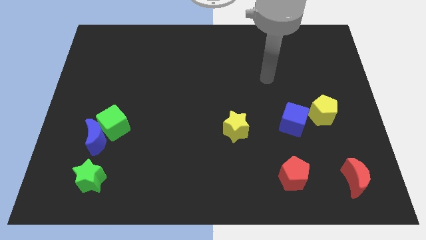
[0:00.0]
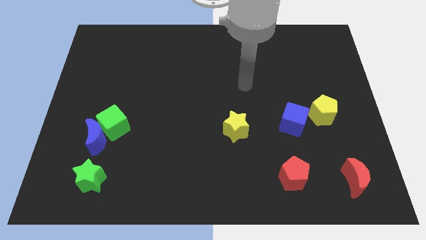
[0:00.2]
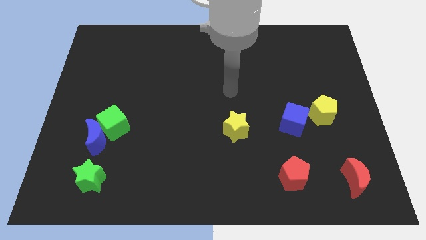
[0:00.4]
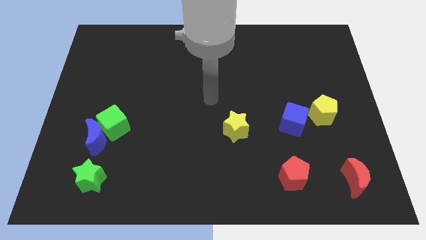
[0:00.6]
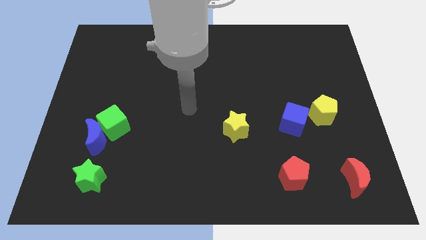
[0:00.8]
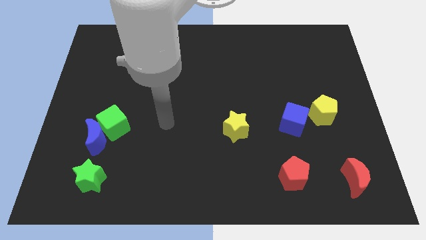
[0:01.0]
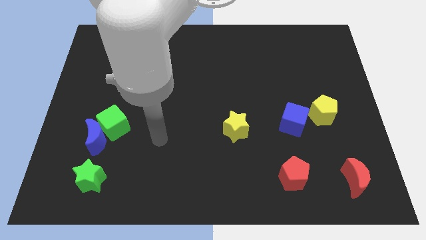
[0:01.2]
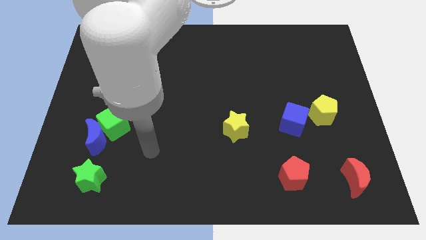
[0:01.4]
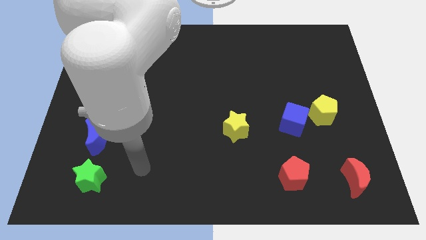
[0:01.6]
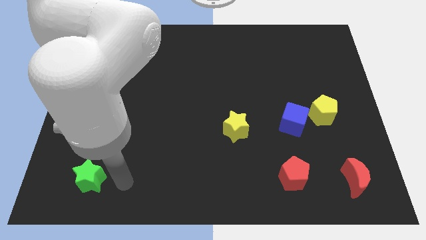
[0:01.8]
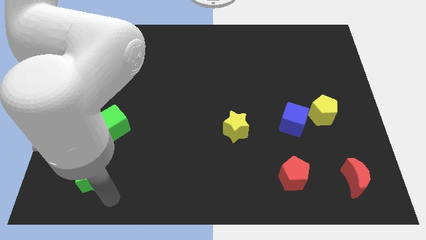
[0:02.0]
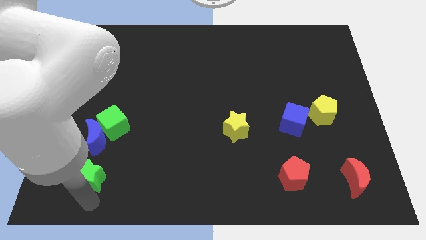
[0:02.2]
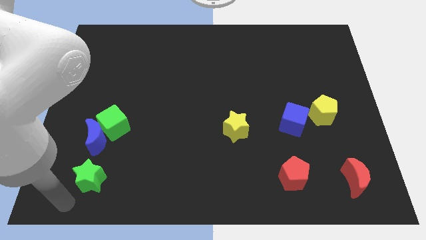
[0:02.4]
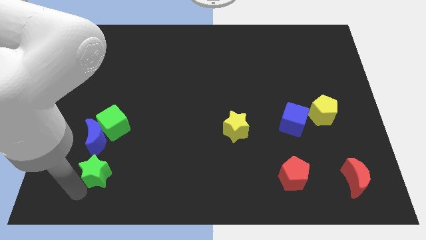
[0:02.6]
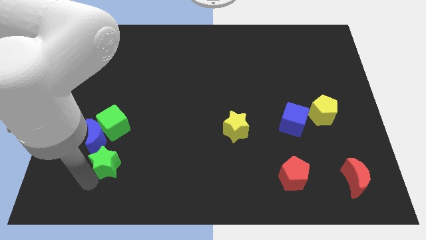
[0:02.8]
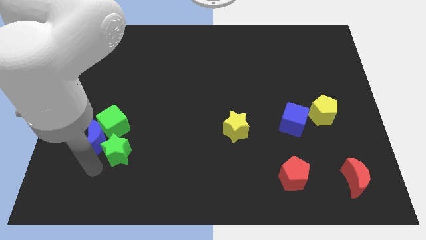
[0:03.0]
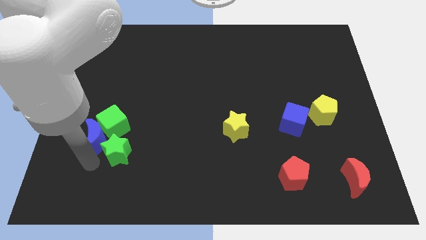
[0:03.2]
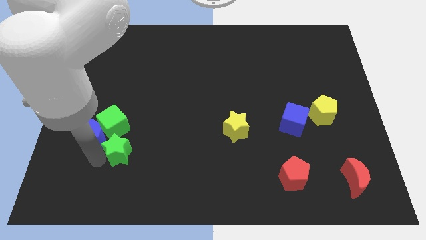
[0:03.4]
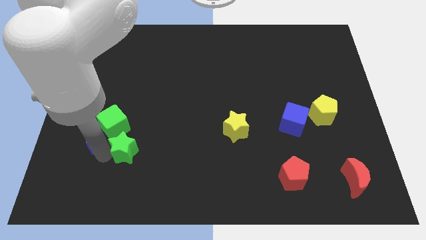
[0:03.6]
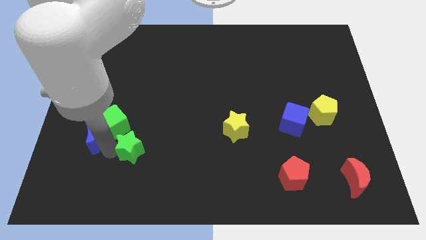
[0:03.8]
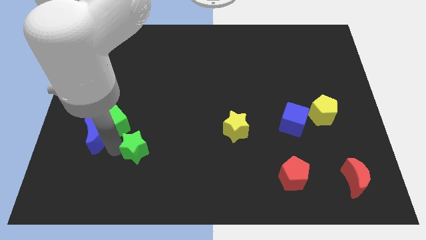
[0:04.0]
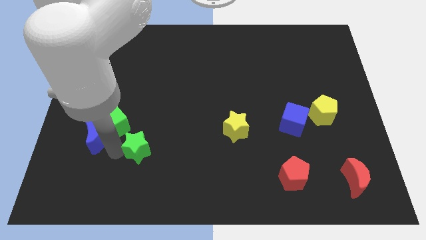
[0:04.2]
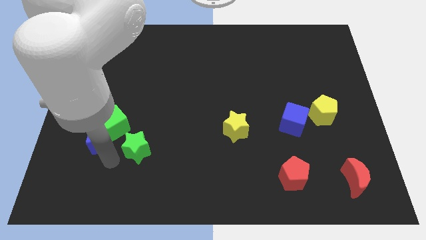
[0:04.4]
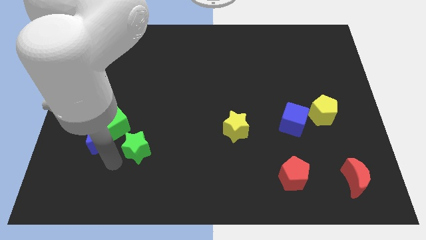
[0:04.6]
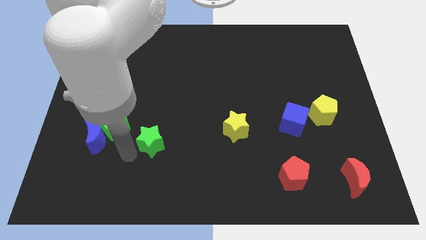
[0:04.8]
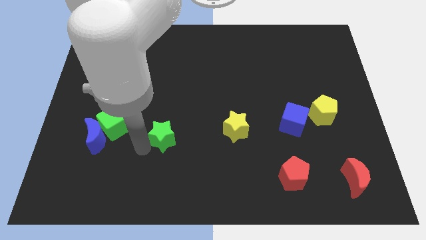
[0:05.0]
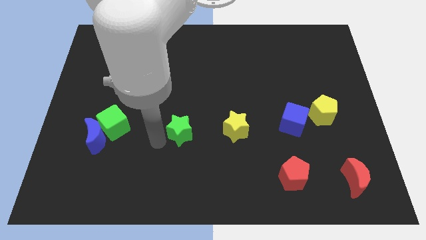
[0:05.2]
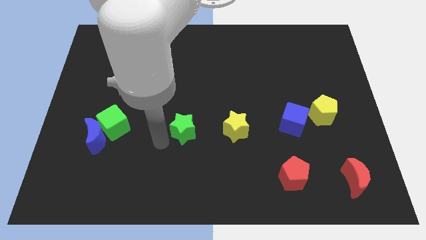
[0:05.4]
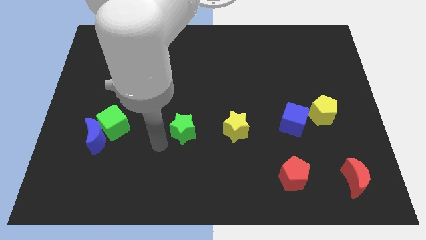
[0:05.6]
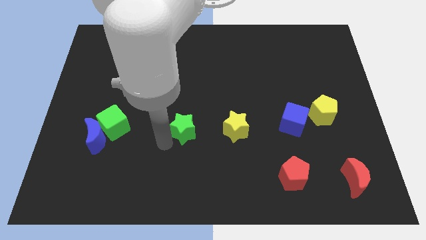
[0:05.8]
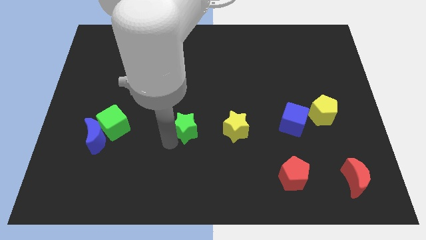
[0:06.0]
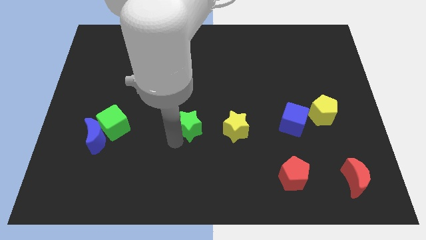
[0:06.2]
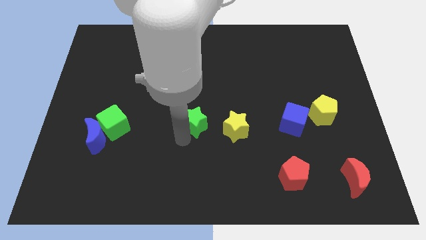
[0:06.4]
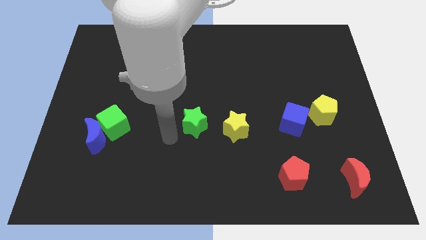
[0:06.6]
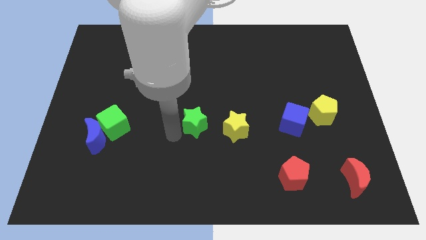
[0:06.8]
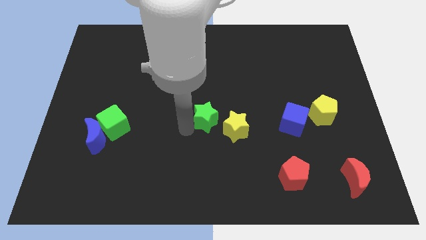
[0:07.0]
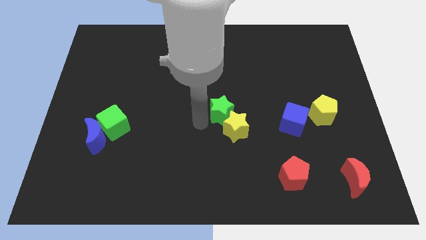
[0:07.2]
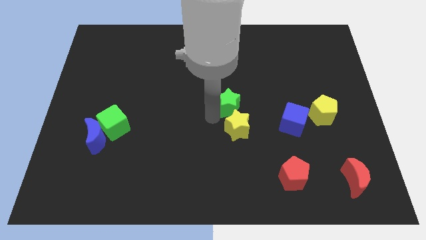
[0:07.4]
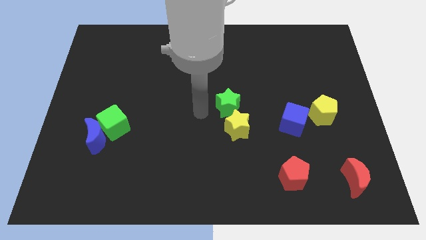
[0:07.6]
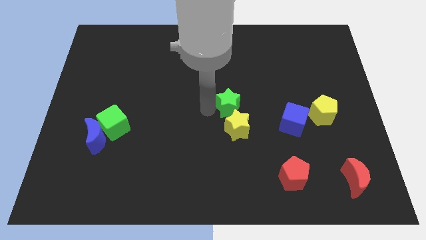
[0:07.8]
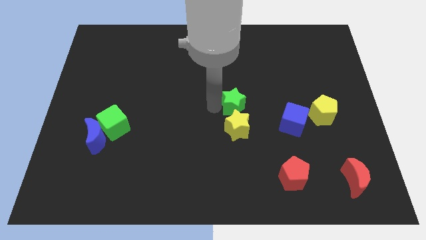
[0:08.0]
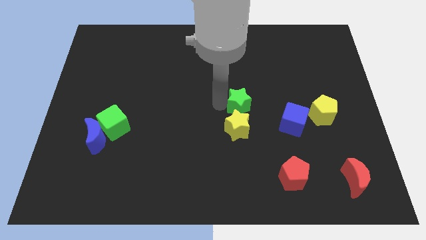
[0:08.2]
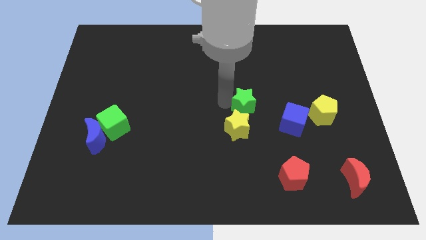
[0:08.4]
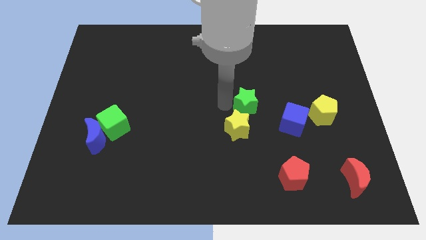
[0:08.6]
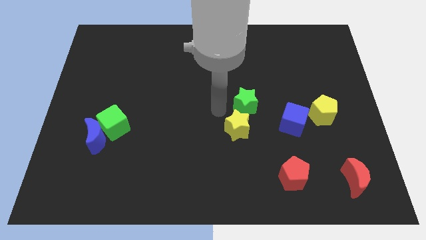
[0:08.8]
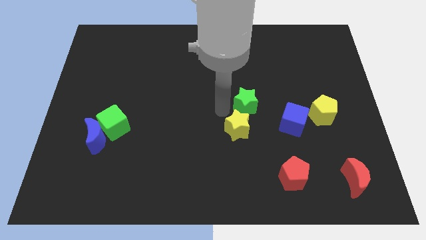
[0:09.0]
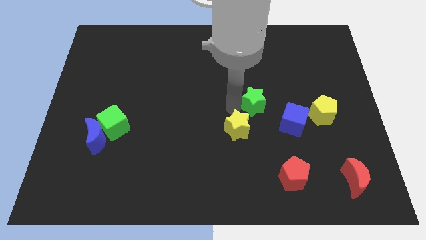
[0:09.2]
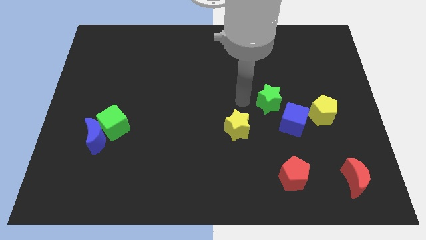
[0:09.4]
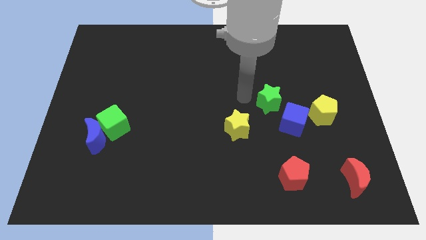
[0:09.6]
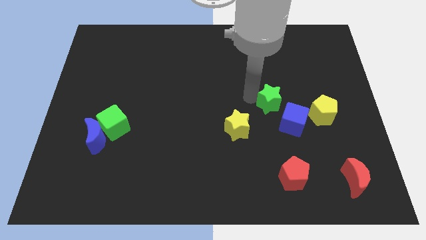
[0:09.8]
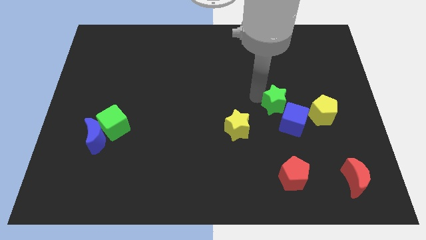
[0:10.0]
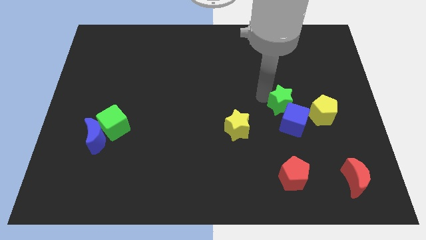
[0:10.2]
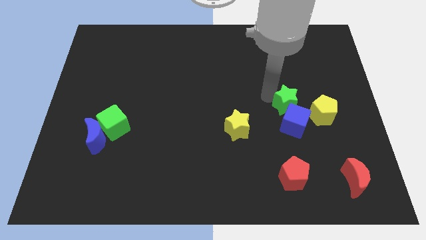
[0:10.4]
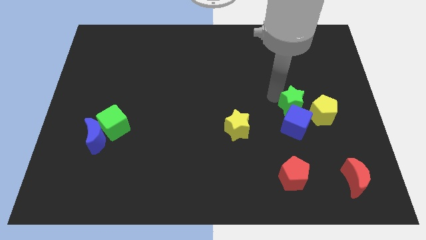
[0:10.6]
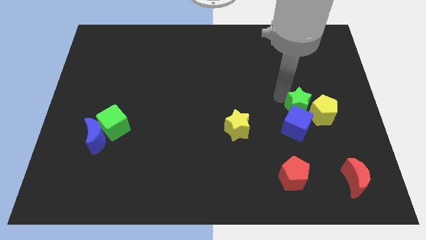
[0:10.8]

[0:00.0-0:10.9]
push the green star towards the yellow pentagon
